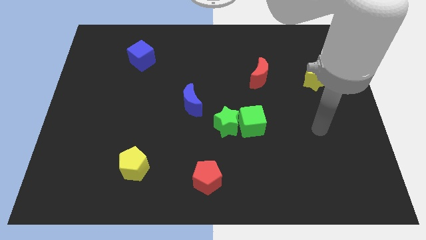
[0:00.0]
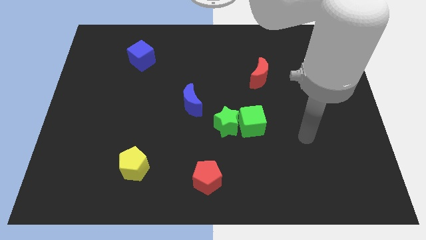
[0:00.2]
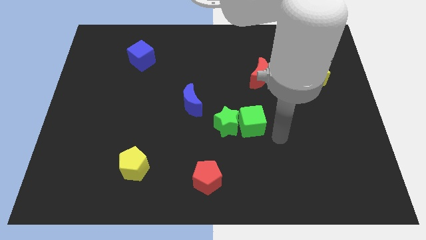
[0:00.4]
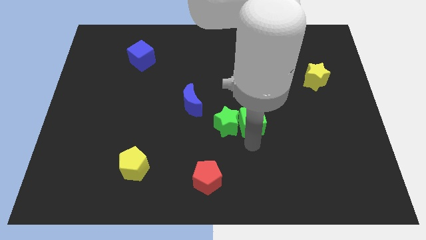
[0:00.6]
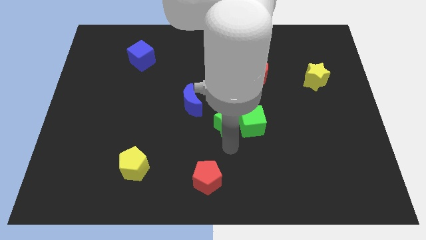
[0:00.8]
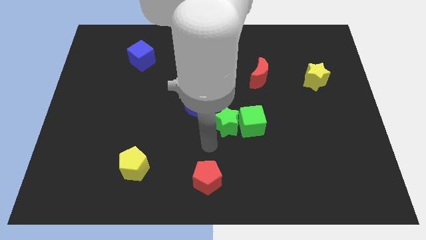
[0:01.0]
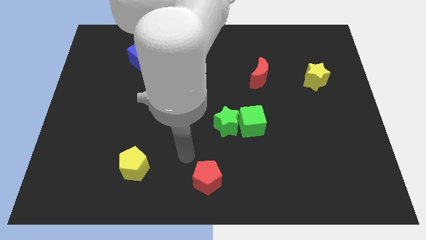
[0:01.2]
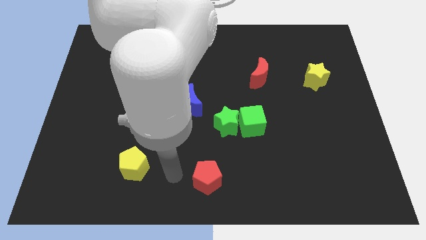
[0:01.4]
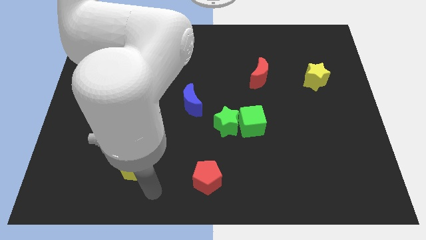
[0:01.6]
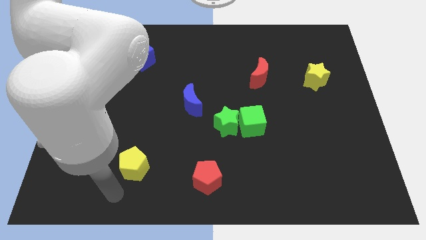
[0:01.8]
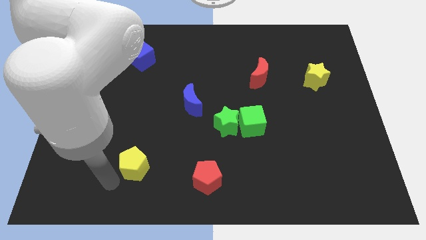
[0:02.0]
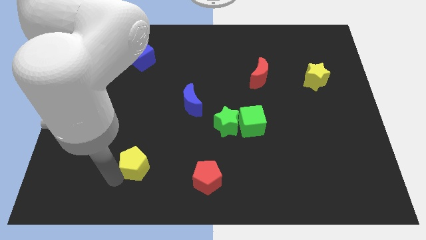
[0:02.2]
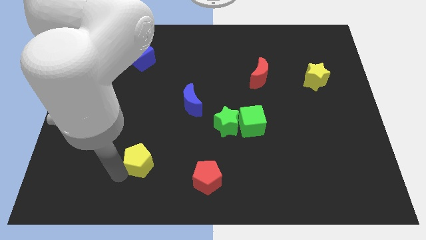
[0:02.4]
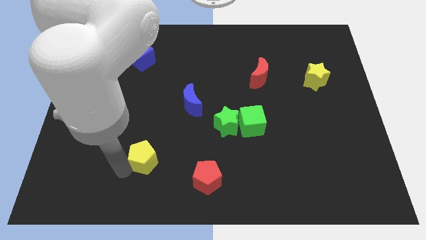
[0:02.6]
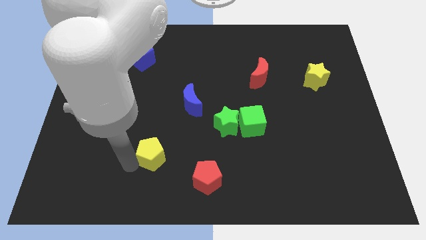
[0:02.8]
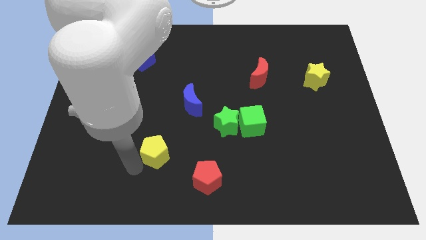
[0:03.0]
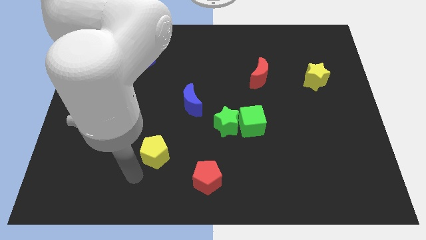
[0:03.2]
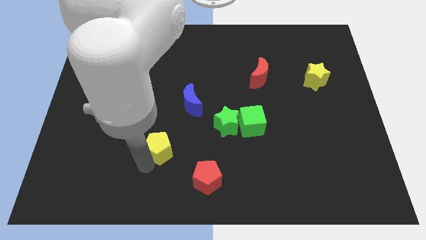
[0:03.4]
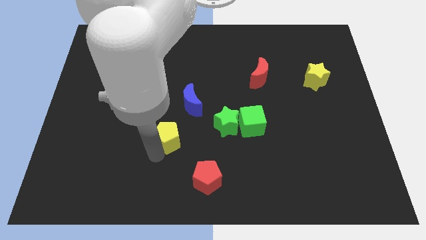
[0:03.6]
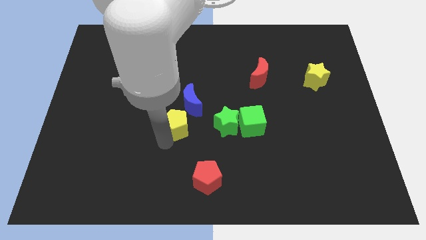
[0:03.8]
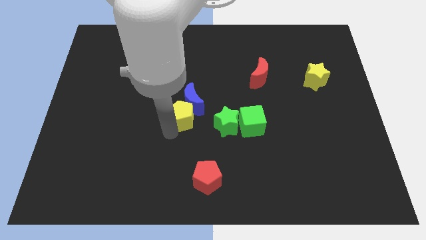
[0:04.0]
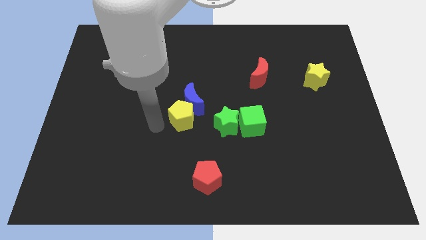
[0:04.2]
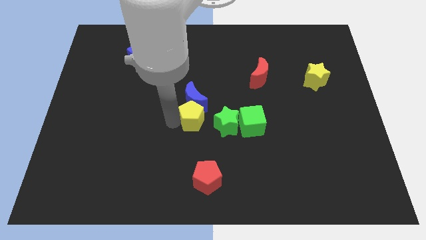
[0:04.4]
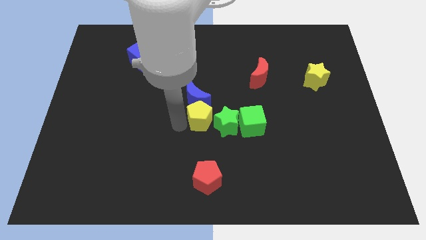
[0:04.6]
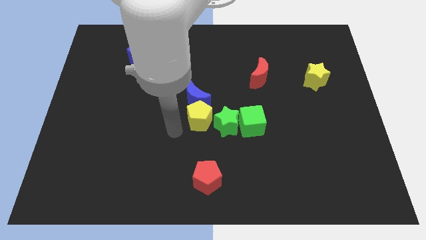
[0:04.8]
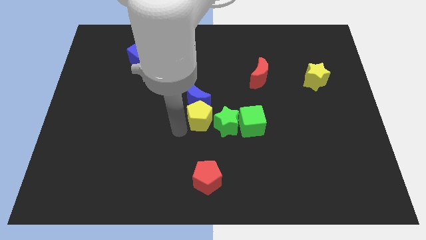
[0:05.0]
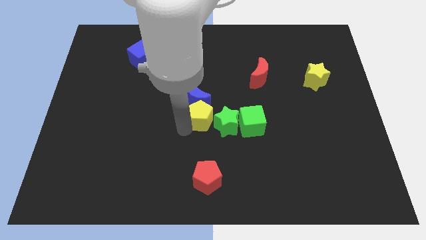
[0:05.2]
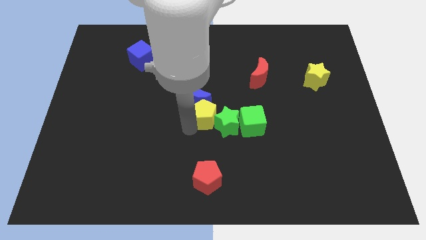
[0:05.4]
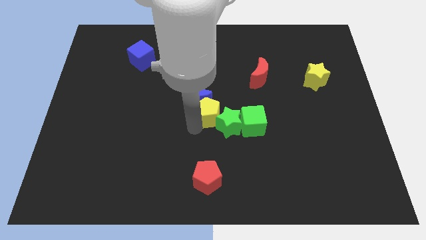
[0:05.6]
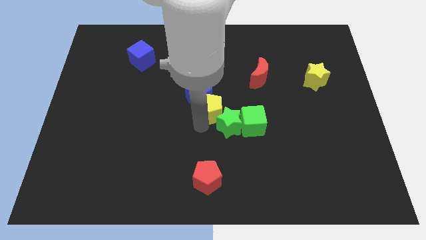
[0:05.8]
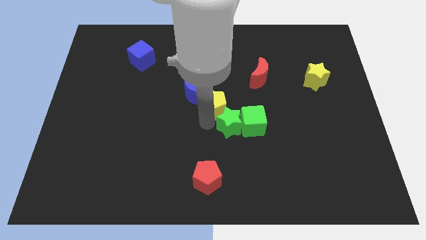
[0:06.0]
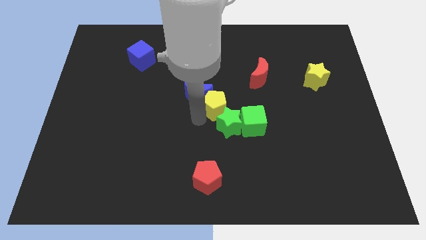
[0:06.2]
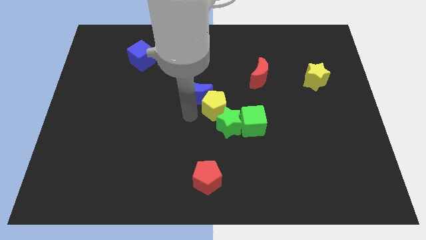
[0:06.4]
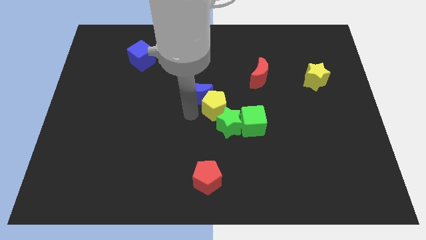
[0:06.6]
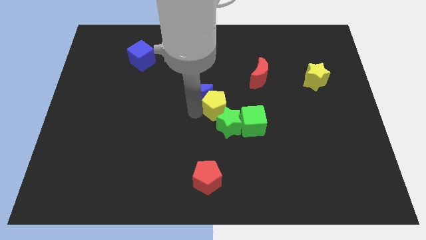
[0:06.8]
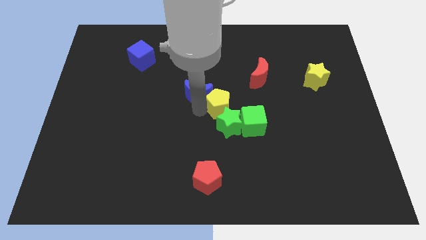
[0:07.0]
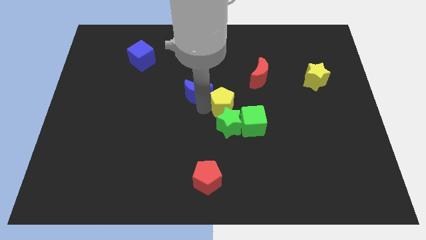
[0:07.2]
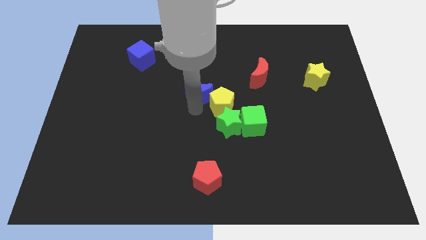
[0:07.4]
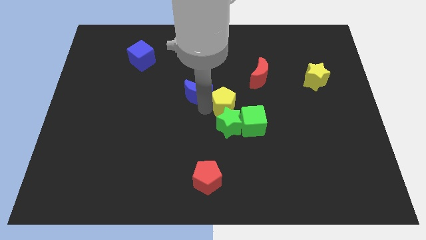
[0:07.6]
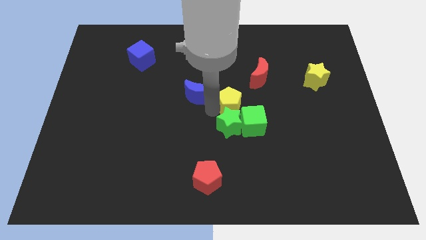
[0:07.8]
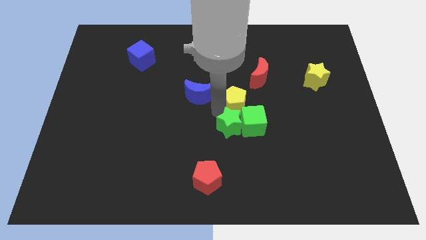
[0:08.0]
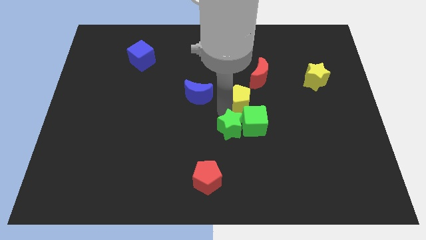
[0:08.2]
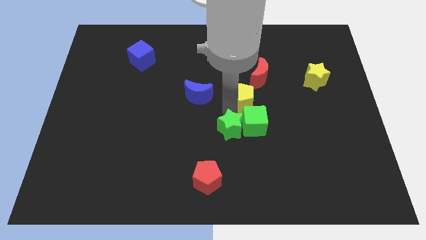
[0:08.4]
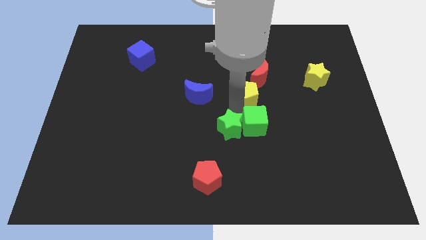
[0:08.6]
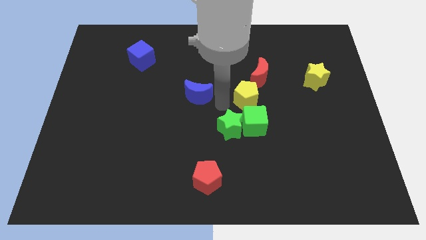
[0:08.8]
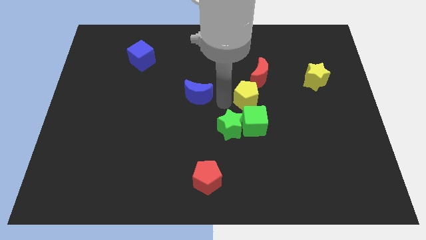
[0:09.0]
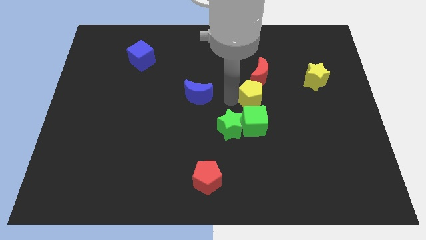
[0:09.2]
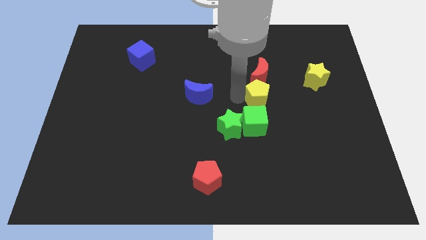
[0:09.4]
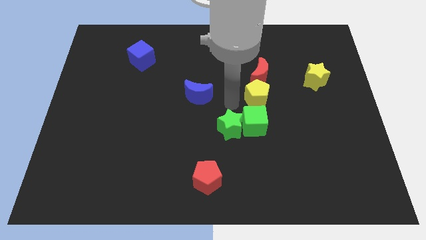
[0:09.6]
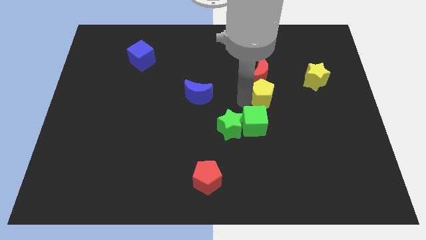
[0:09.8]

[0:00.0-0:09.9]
push the yellow pentagon to the bottom right side of the red moon

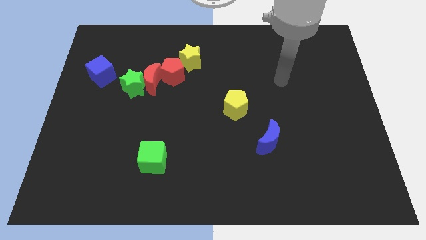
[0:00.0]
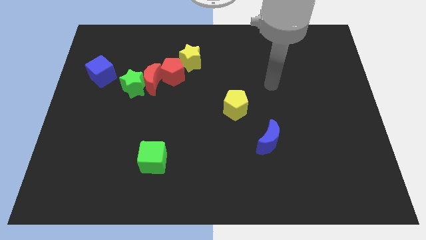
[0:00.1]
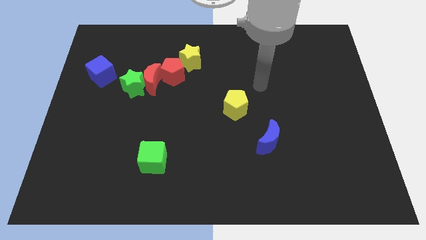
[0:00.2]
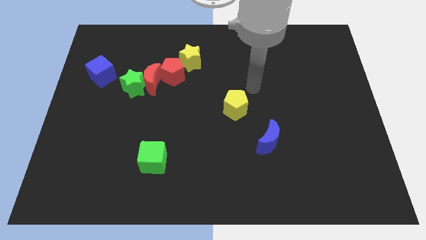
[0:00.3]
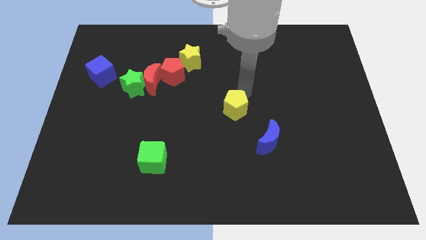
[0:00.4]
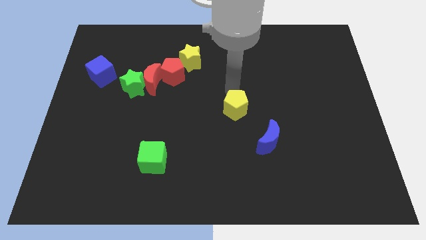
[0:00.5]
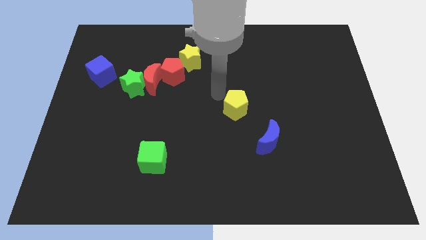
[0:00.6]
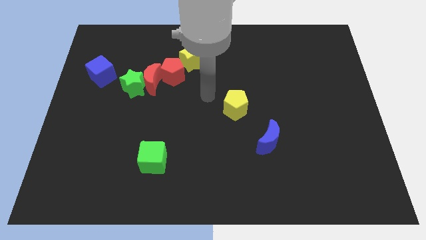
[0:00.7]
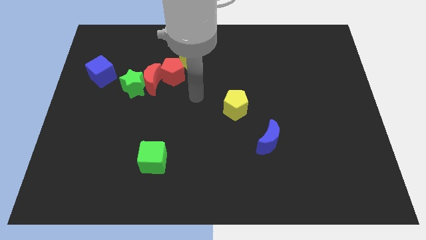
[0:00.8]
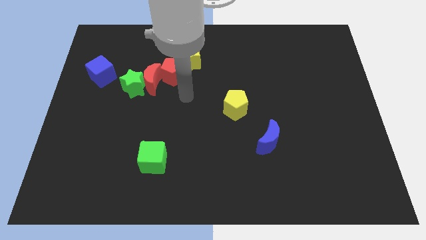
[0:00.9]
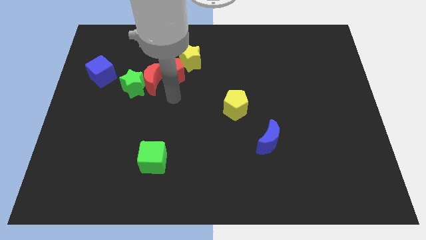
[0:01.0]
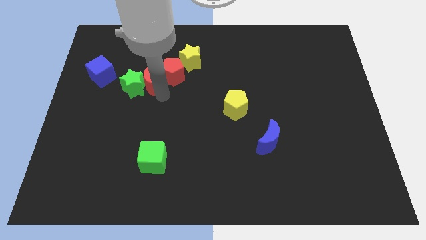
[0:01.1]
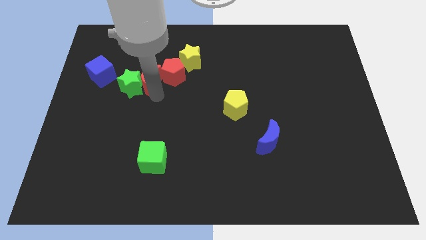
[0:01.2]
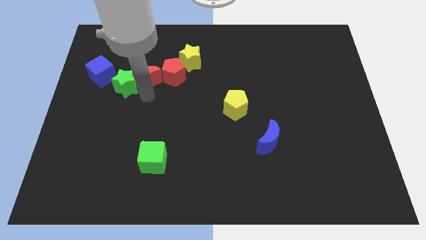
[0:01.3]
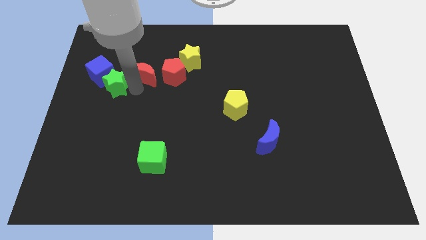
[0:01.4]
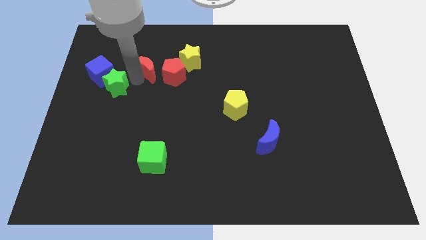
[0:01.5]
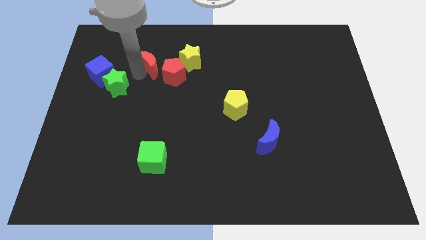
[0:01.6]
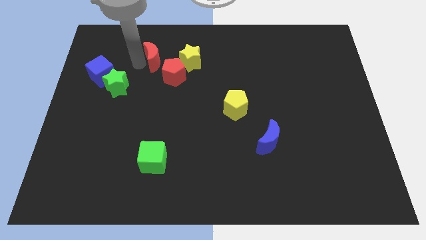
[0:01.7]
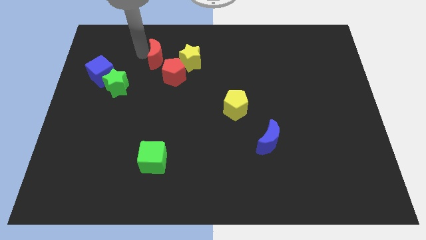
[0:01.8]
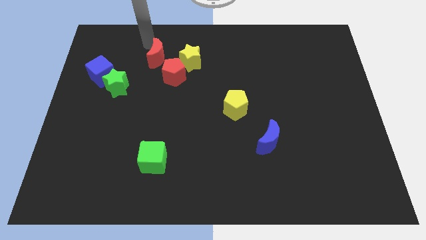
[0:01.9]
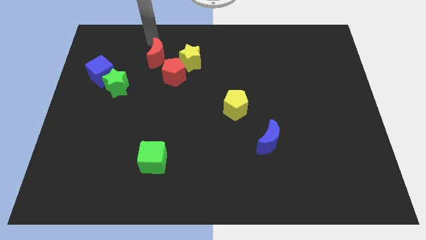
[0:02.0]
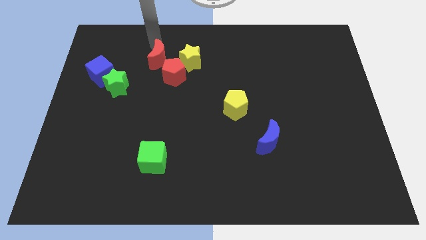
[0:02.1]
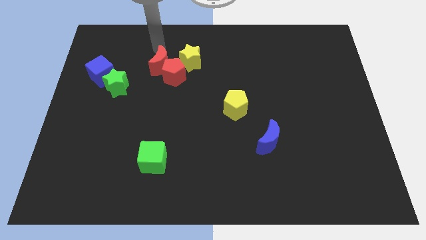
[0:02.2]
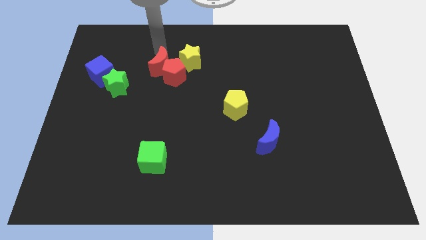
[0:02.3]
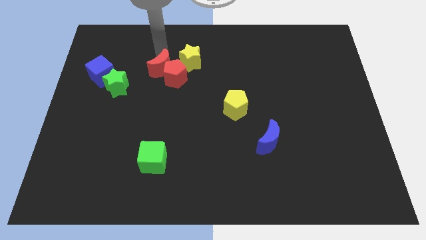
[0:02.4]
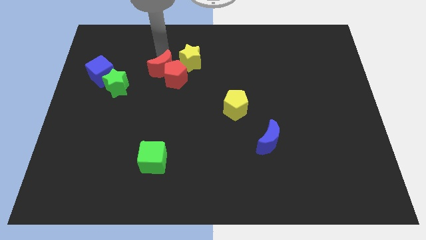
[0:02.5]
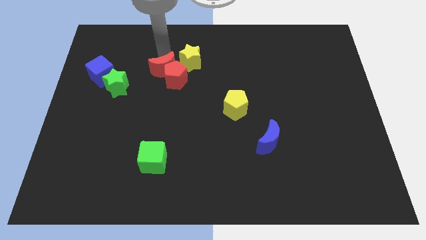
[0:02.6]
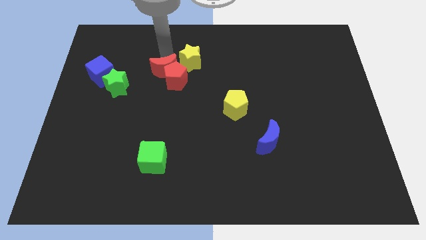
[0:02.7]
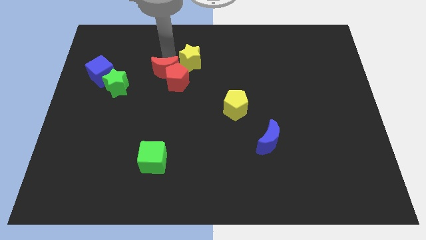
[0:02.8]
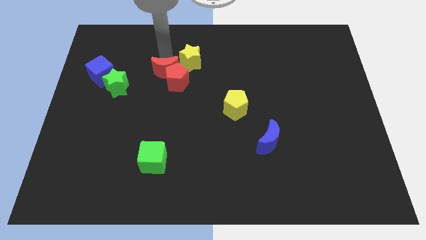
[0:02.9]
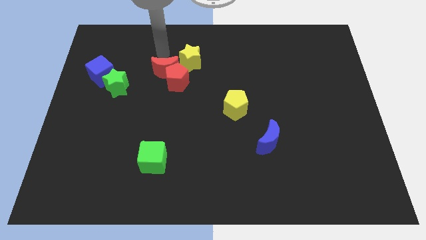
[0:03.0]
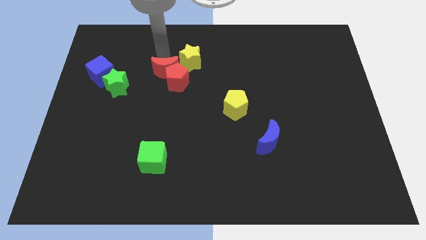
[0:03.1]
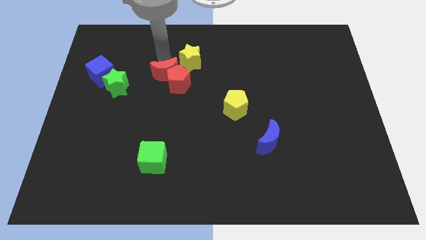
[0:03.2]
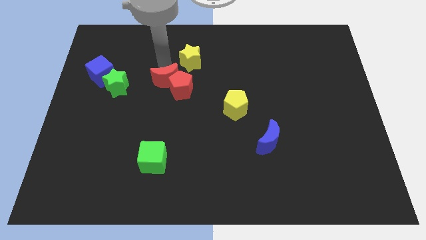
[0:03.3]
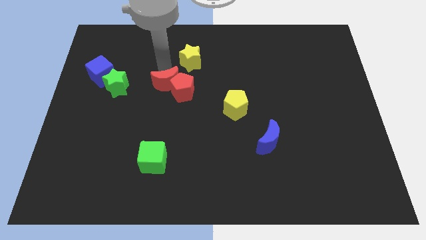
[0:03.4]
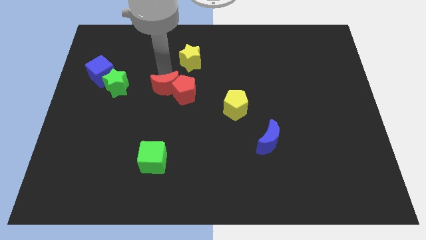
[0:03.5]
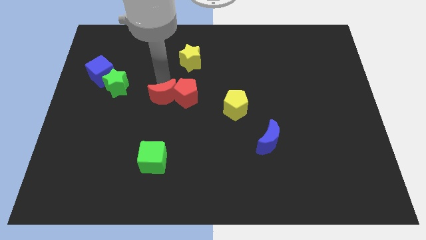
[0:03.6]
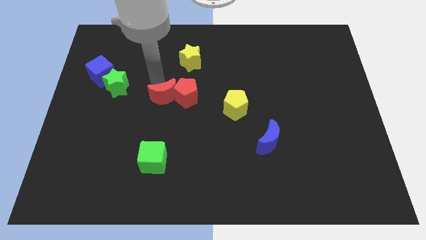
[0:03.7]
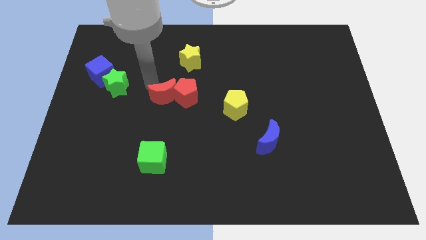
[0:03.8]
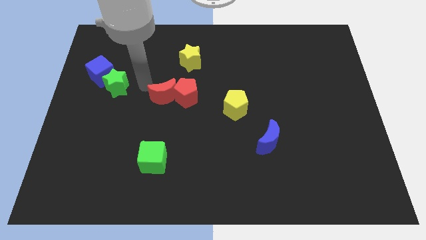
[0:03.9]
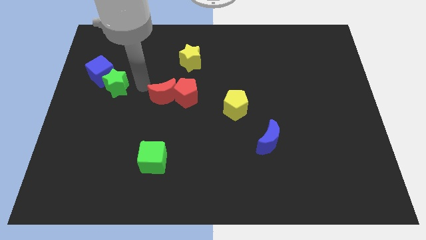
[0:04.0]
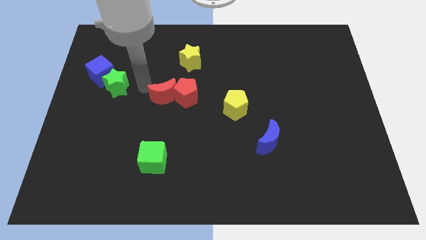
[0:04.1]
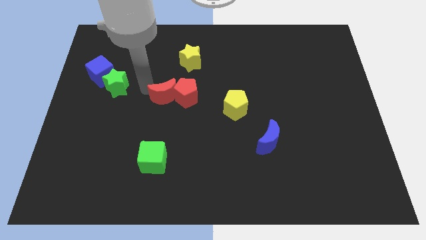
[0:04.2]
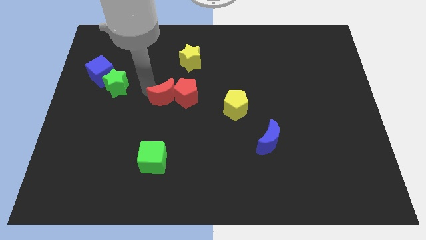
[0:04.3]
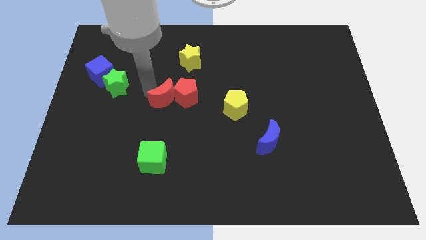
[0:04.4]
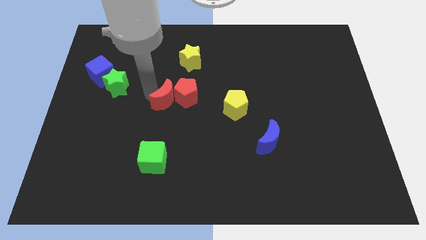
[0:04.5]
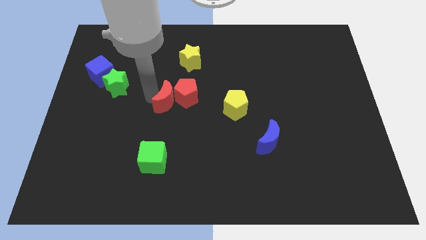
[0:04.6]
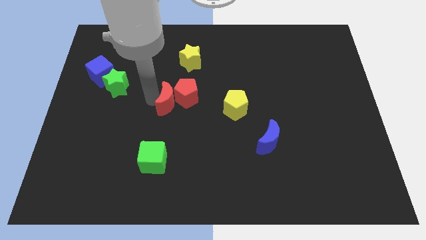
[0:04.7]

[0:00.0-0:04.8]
move the red moon to the left side of the yellow pentagon
